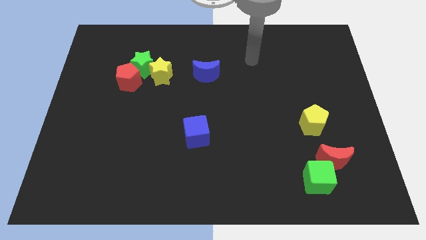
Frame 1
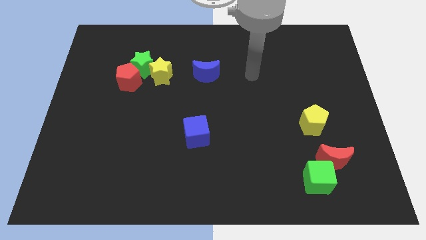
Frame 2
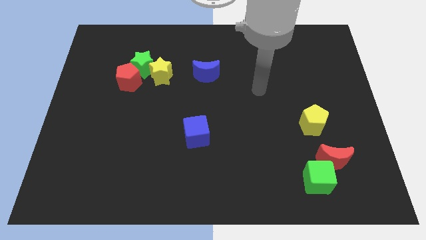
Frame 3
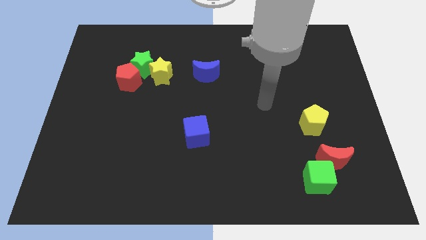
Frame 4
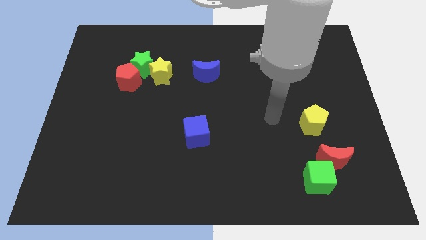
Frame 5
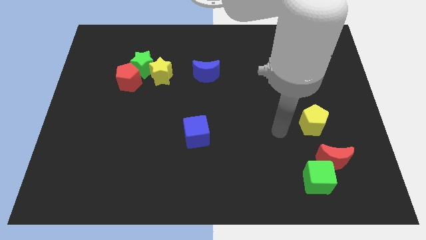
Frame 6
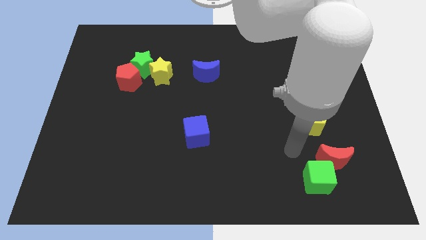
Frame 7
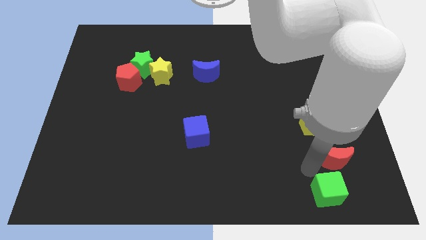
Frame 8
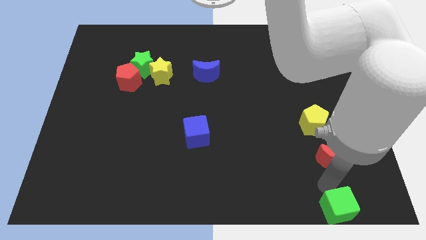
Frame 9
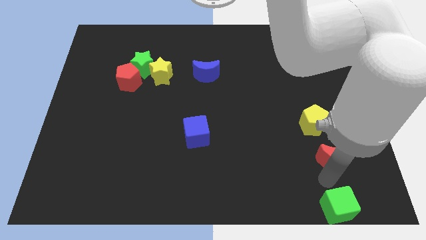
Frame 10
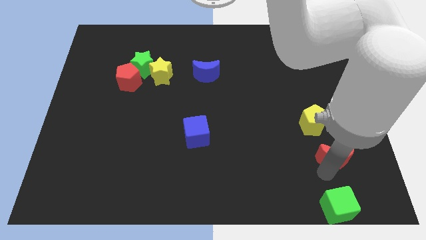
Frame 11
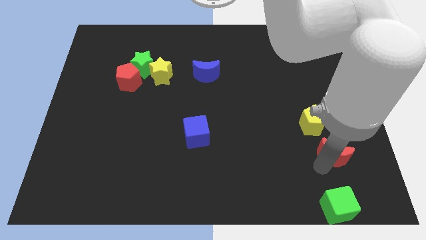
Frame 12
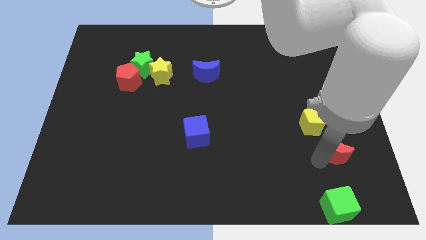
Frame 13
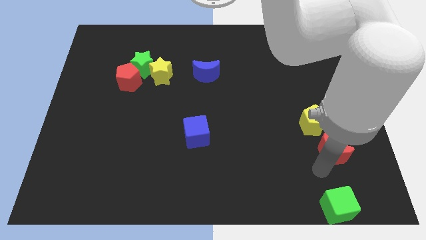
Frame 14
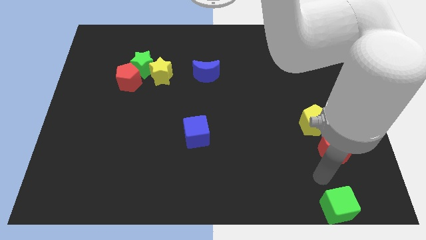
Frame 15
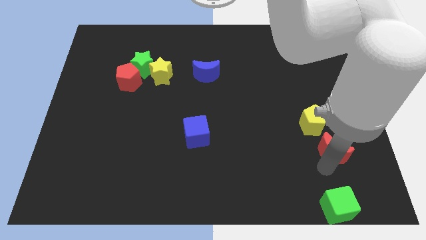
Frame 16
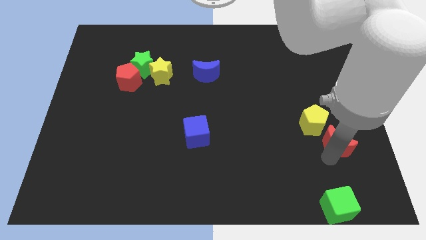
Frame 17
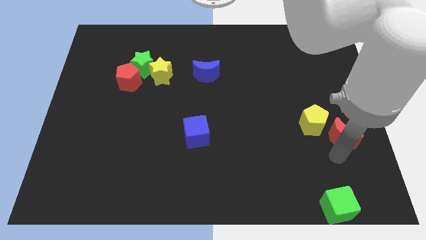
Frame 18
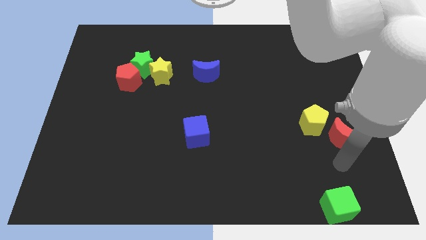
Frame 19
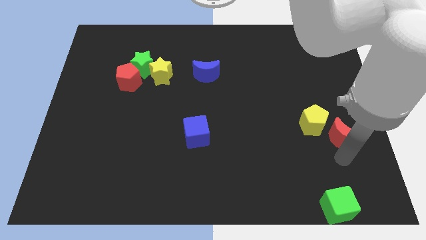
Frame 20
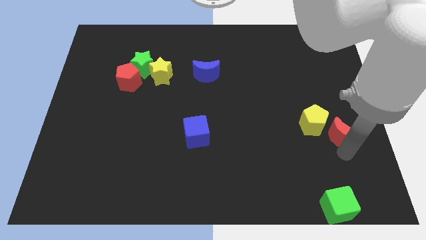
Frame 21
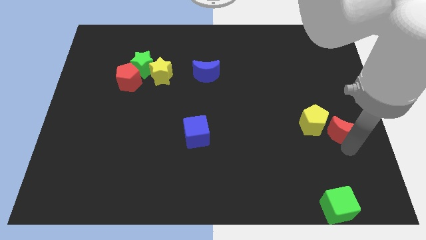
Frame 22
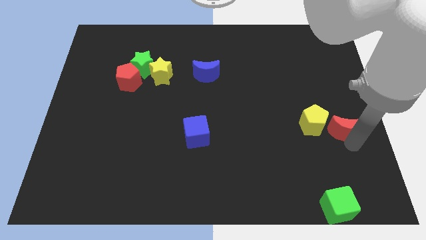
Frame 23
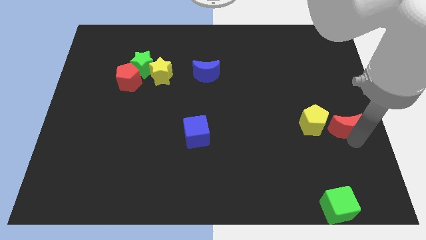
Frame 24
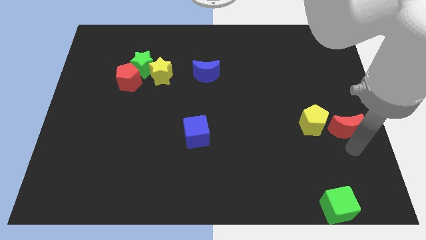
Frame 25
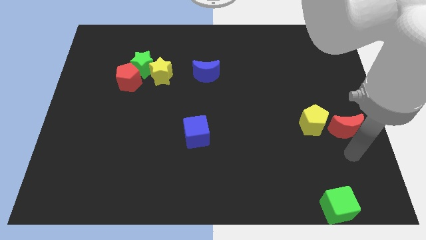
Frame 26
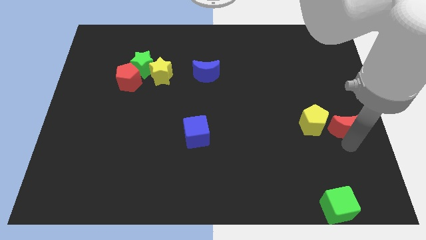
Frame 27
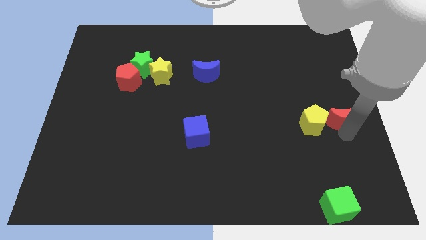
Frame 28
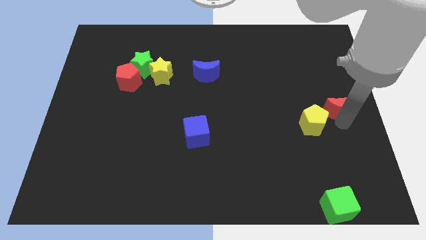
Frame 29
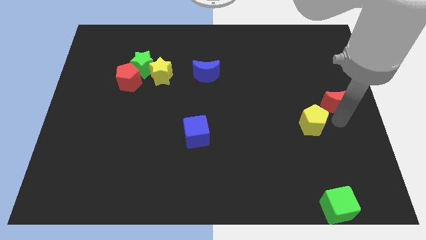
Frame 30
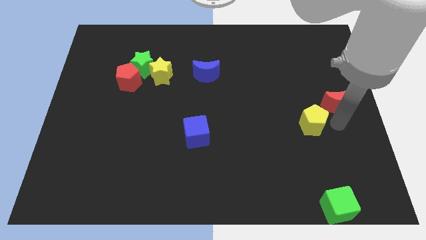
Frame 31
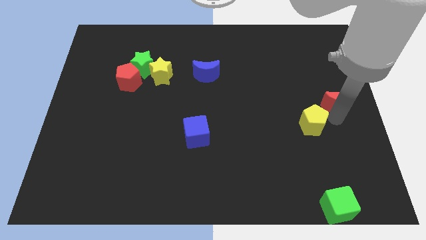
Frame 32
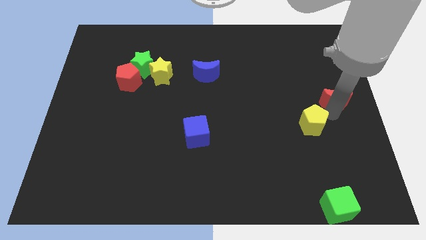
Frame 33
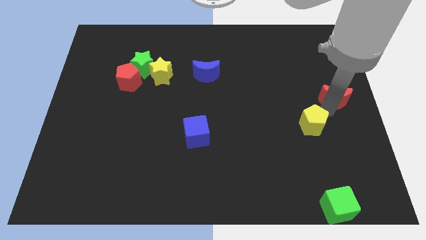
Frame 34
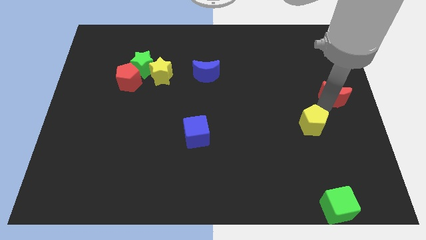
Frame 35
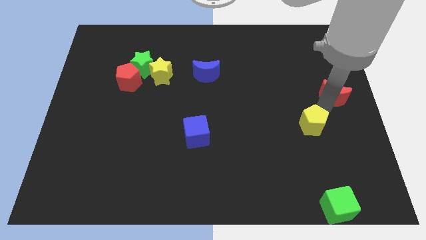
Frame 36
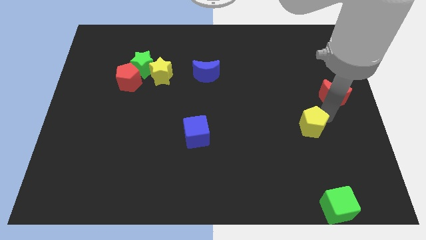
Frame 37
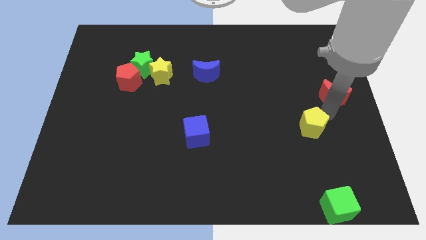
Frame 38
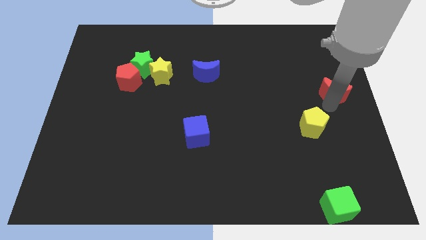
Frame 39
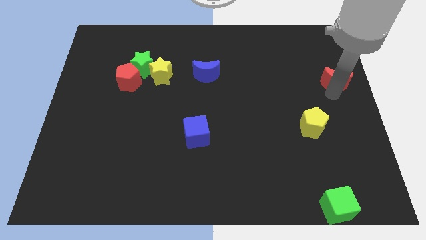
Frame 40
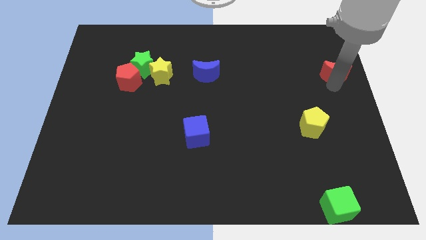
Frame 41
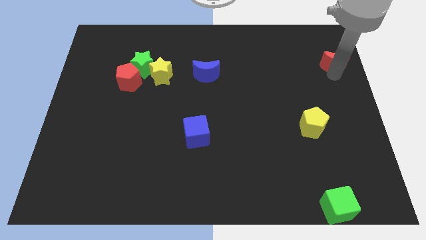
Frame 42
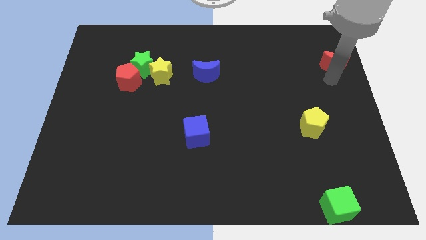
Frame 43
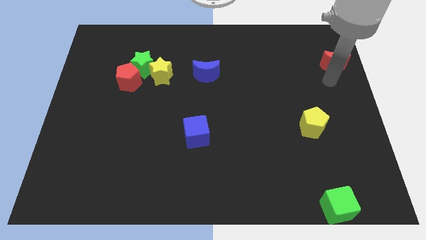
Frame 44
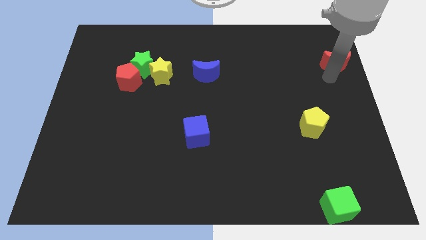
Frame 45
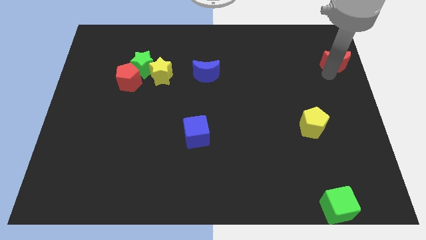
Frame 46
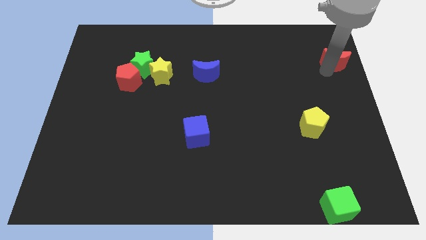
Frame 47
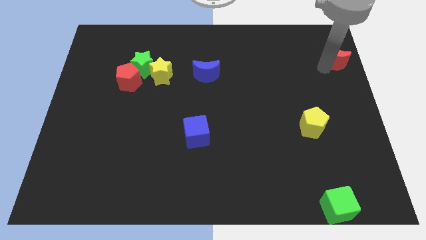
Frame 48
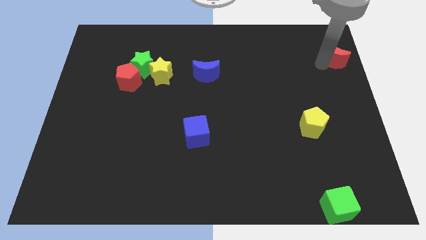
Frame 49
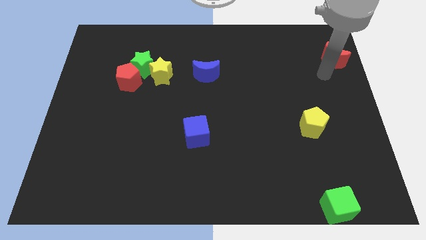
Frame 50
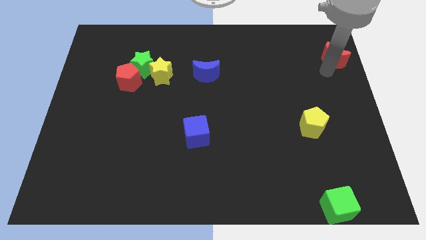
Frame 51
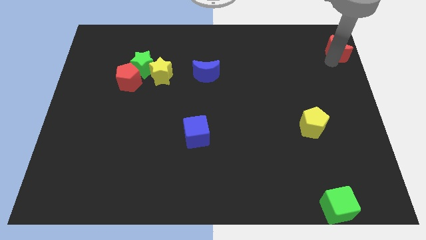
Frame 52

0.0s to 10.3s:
push the red moon to the upper right corner

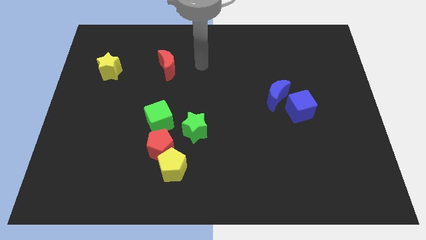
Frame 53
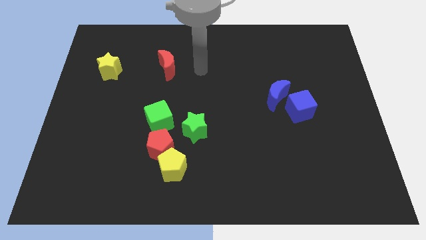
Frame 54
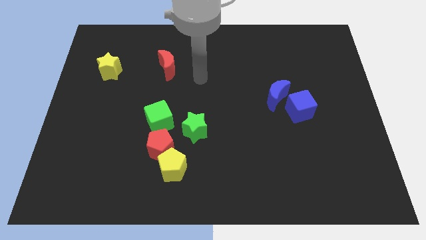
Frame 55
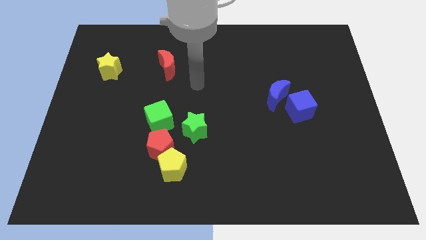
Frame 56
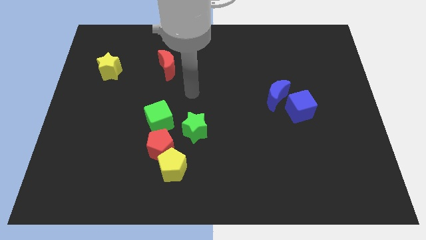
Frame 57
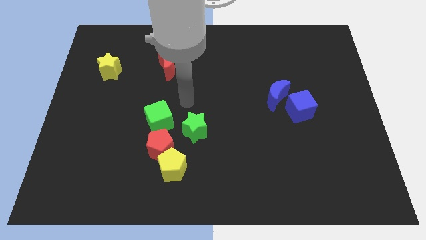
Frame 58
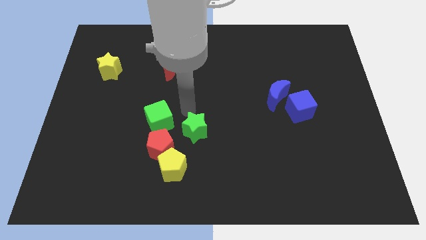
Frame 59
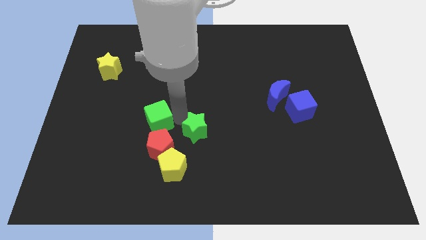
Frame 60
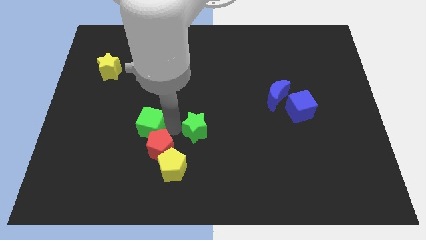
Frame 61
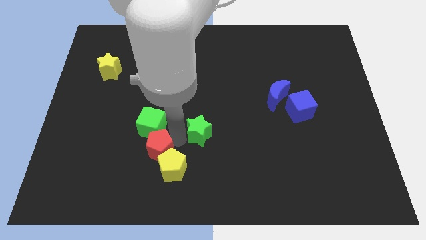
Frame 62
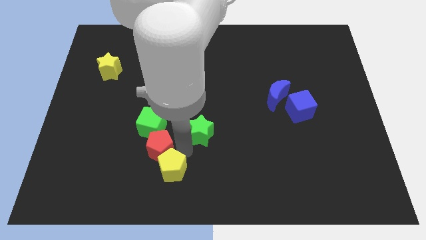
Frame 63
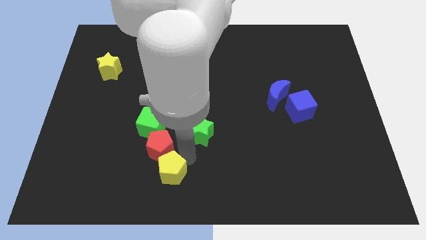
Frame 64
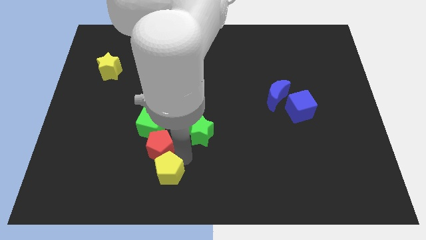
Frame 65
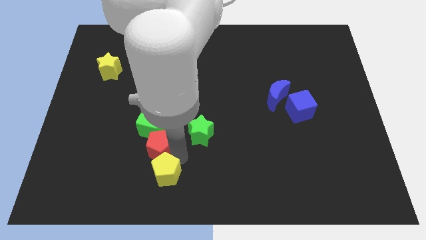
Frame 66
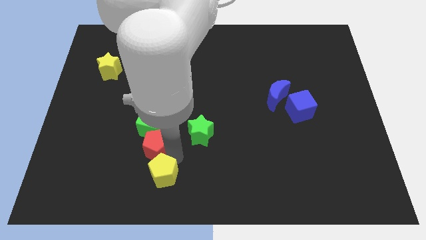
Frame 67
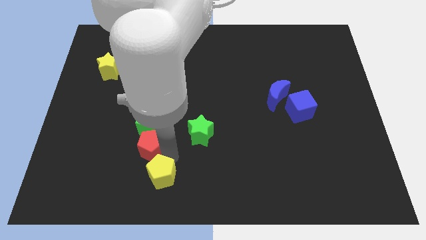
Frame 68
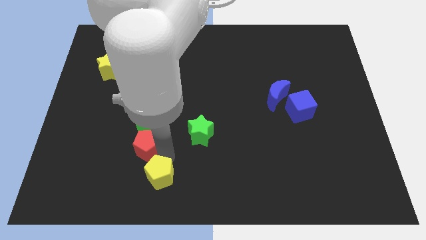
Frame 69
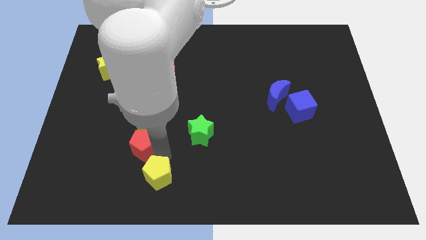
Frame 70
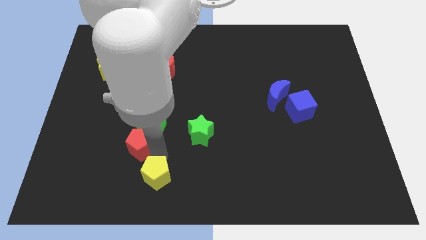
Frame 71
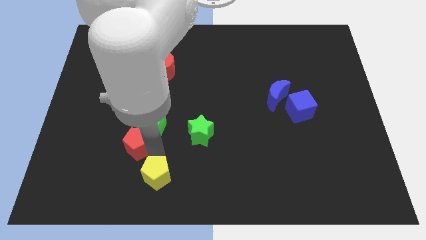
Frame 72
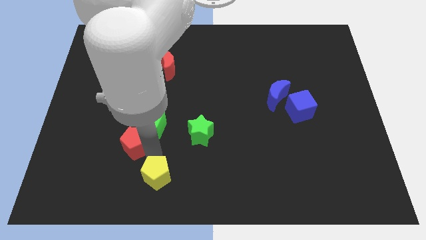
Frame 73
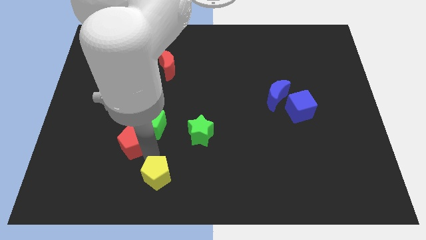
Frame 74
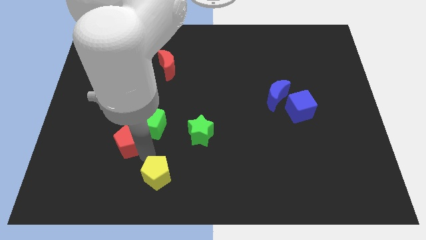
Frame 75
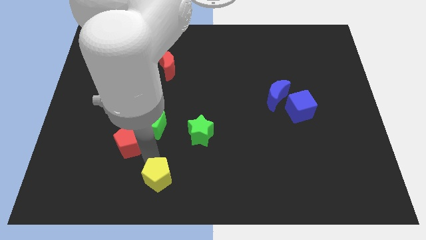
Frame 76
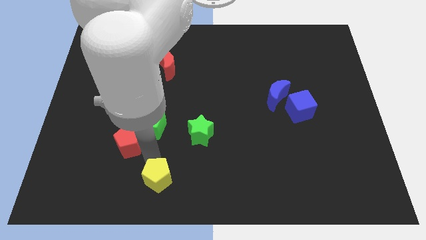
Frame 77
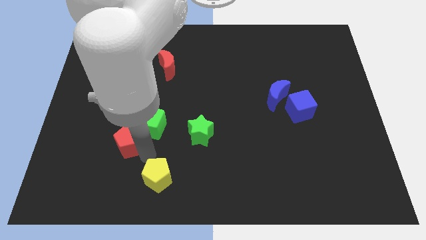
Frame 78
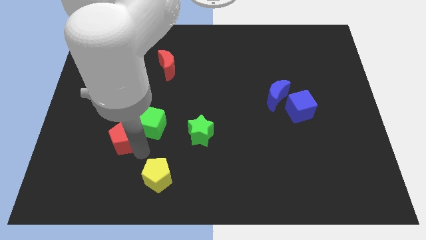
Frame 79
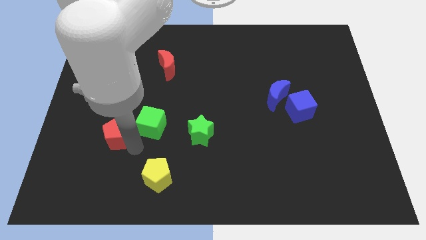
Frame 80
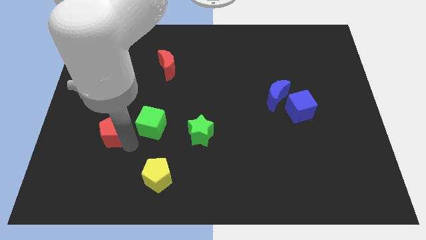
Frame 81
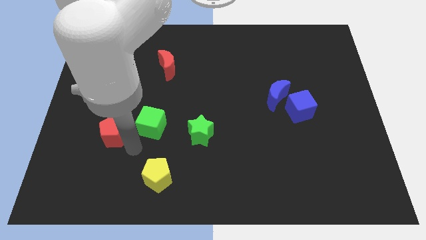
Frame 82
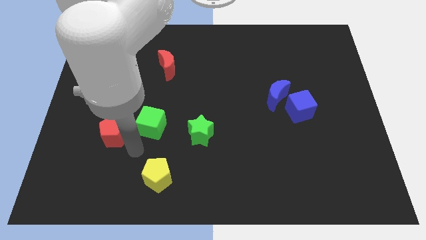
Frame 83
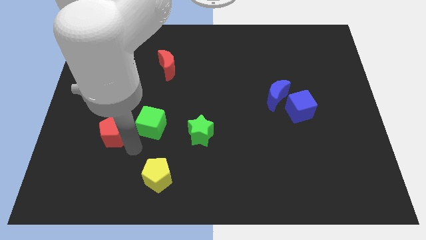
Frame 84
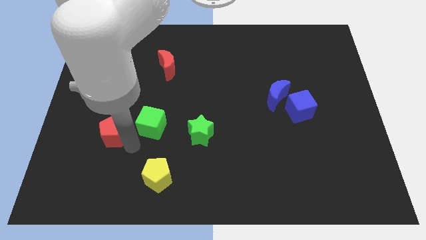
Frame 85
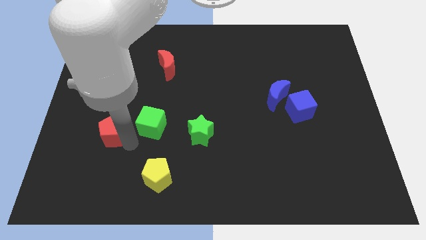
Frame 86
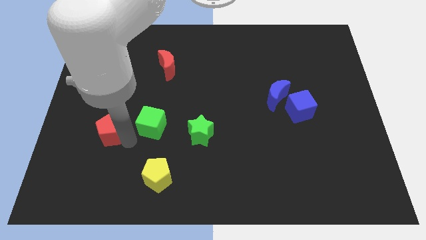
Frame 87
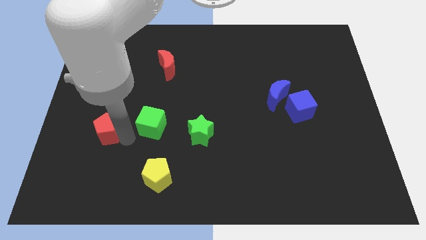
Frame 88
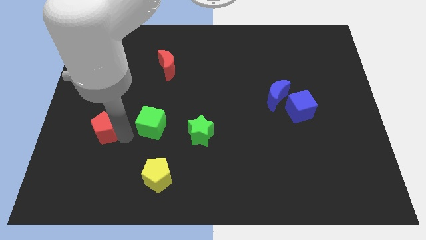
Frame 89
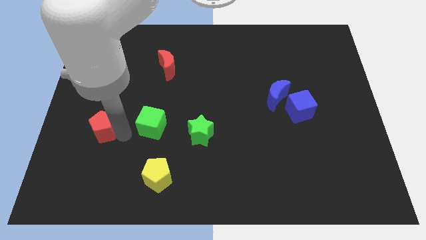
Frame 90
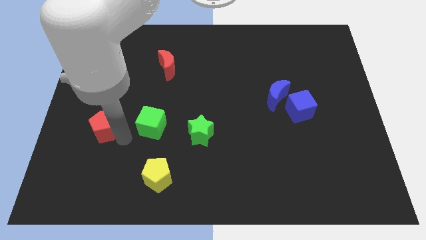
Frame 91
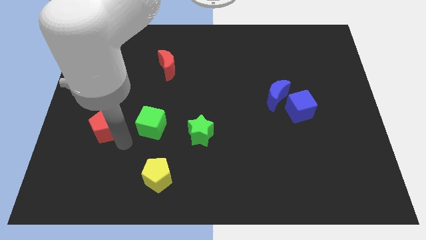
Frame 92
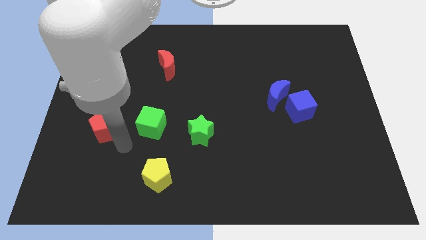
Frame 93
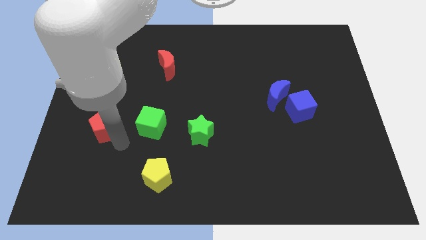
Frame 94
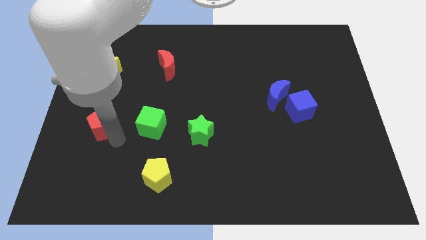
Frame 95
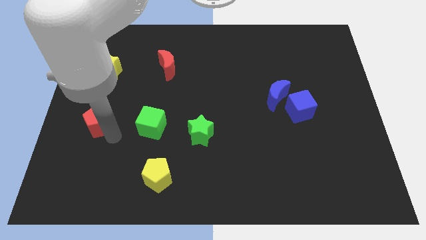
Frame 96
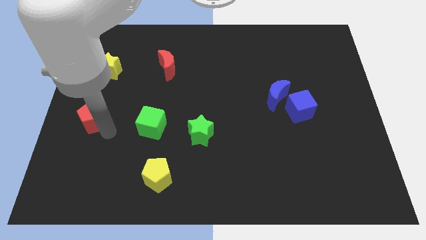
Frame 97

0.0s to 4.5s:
put the red pentagon to the left side
